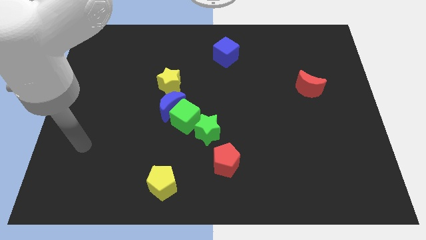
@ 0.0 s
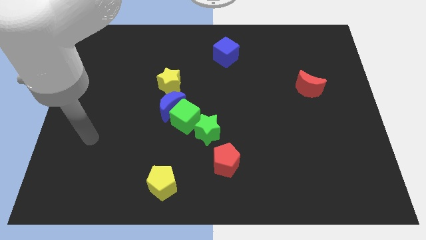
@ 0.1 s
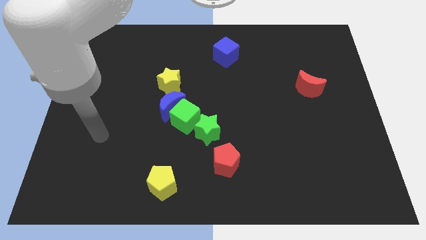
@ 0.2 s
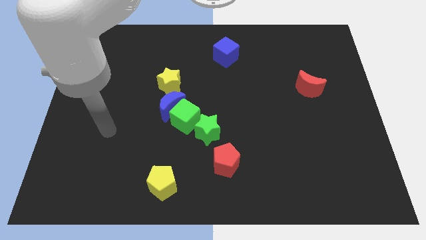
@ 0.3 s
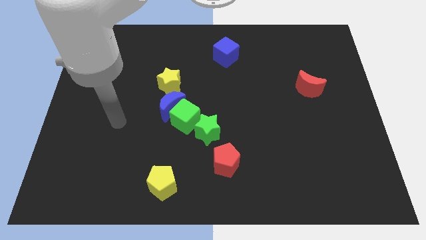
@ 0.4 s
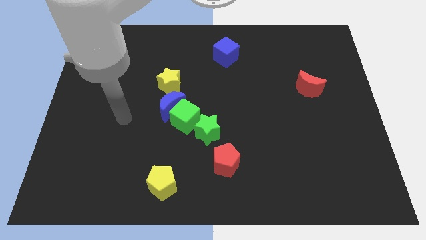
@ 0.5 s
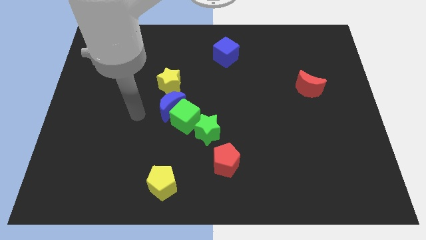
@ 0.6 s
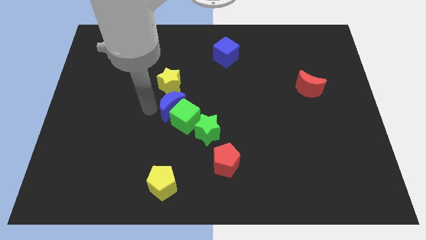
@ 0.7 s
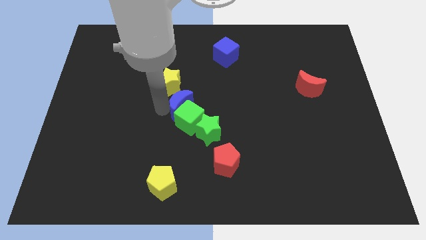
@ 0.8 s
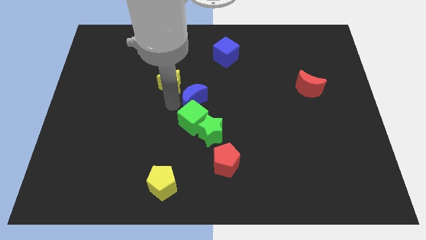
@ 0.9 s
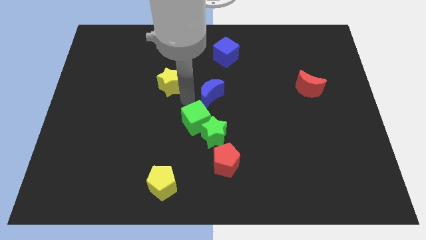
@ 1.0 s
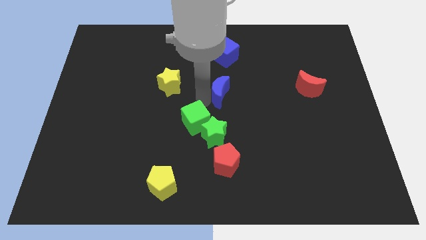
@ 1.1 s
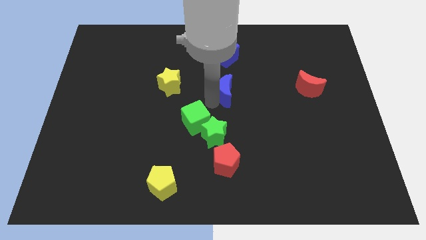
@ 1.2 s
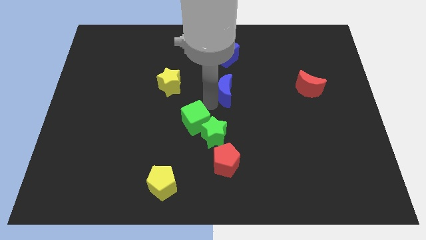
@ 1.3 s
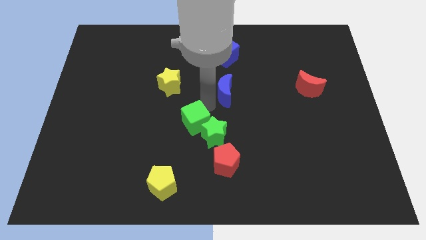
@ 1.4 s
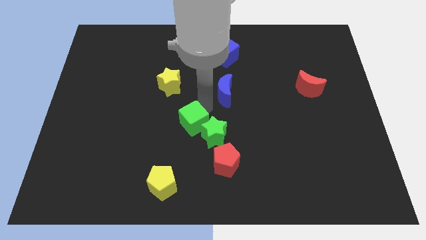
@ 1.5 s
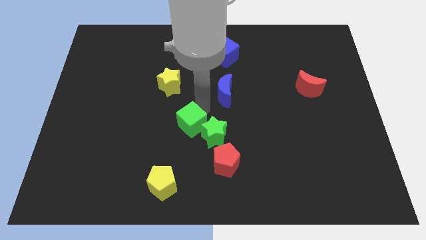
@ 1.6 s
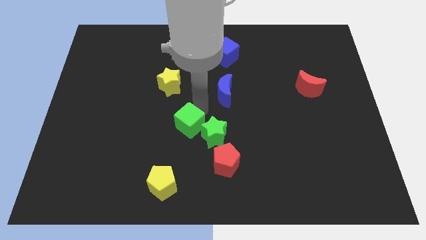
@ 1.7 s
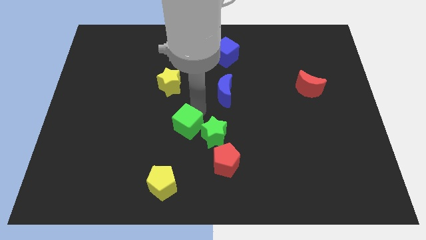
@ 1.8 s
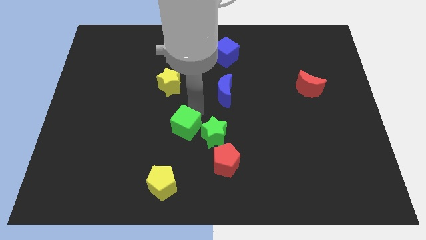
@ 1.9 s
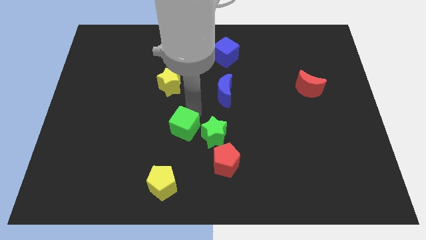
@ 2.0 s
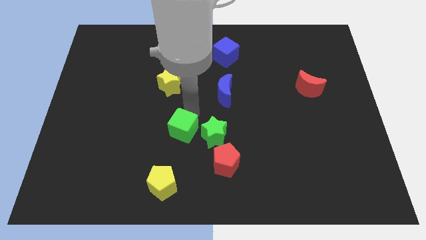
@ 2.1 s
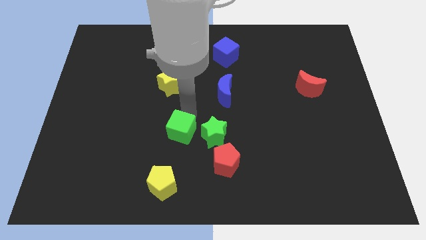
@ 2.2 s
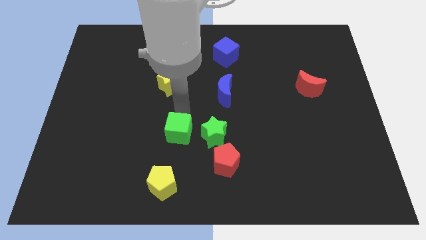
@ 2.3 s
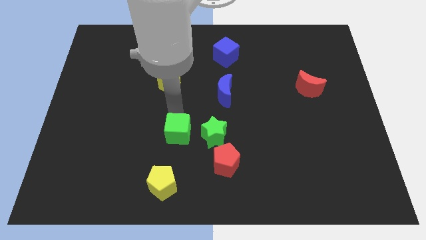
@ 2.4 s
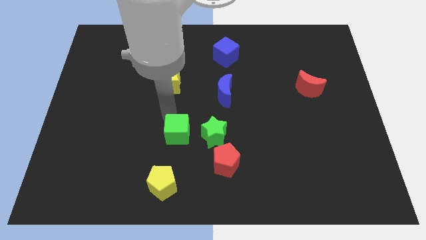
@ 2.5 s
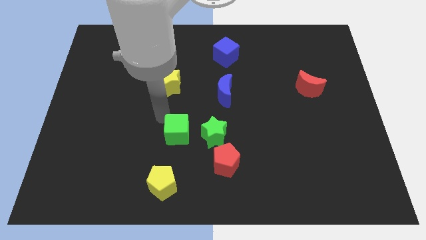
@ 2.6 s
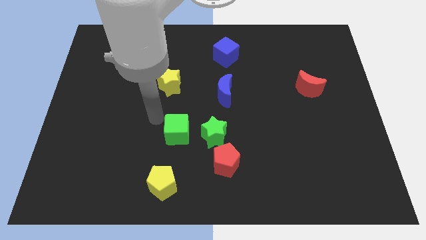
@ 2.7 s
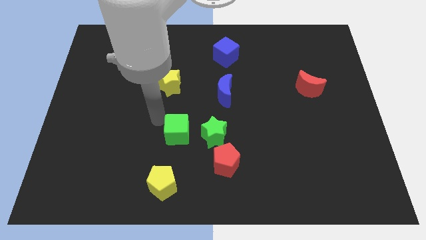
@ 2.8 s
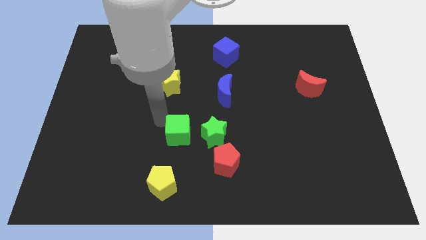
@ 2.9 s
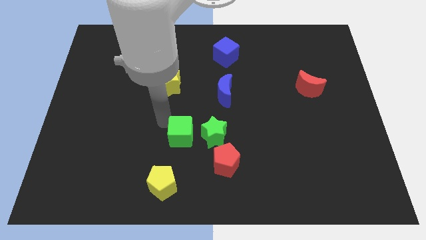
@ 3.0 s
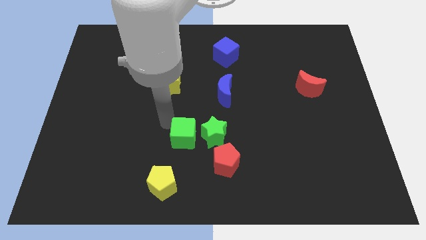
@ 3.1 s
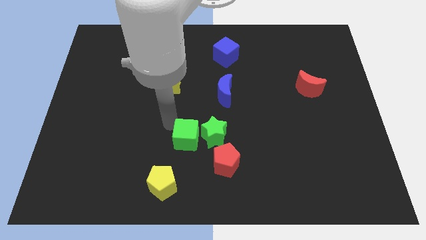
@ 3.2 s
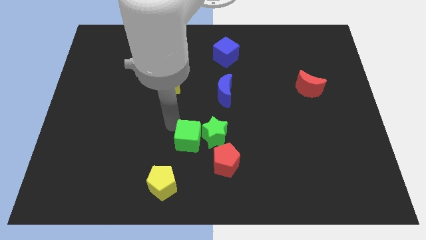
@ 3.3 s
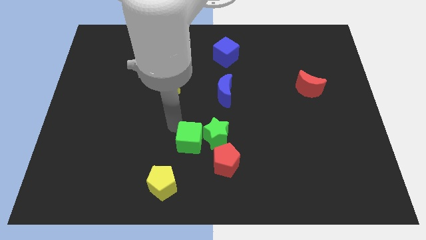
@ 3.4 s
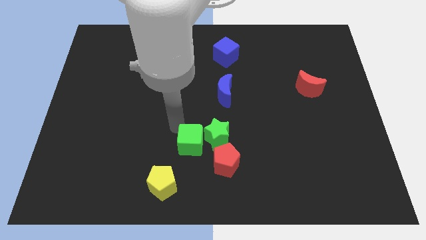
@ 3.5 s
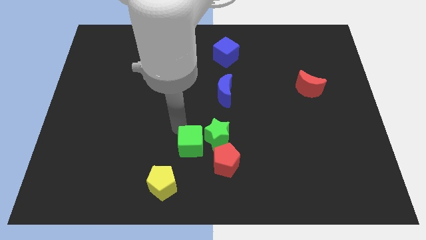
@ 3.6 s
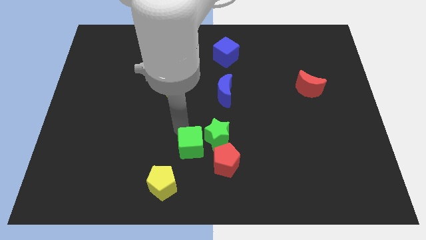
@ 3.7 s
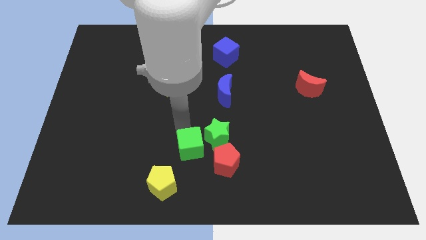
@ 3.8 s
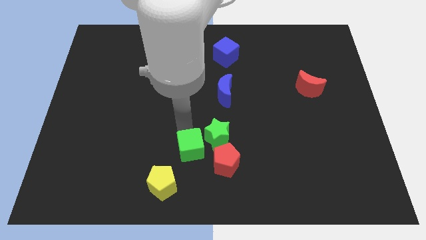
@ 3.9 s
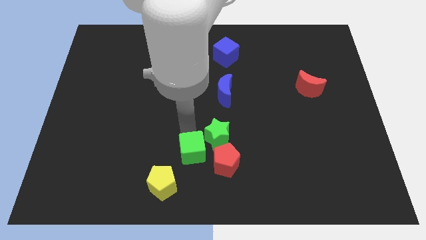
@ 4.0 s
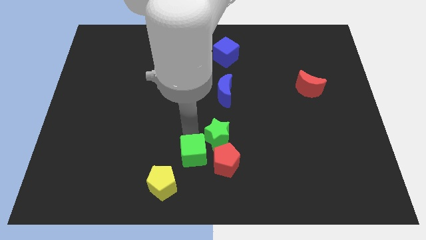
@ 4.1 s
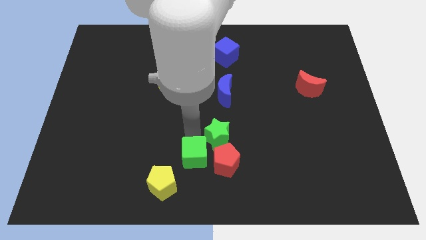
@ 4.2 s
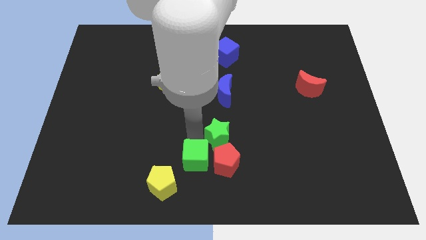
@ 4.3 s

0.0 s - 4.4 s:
put the green cube to the red pentagon

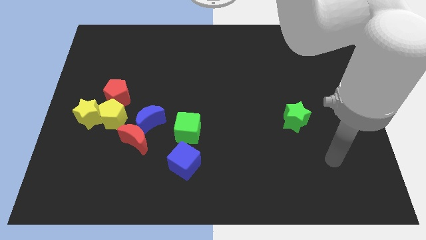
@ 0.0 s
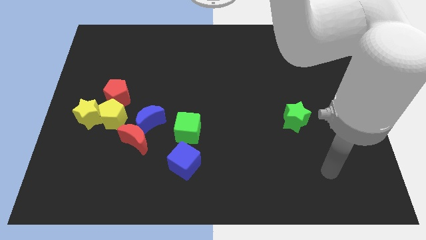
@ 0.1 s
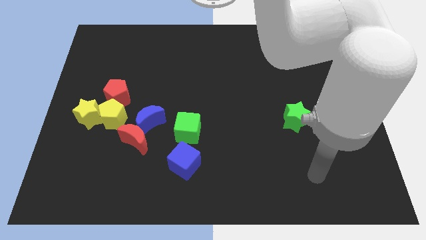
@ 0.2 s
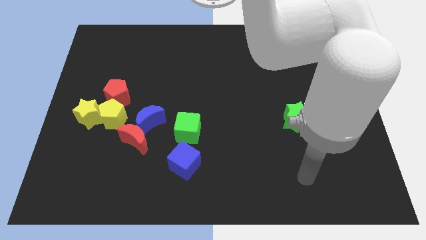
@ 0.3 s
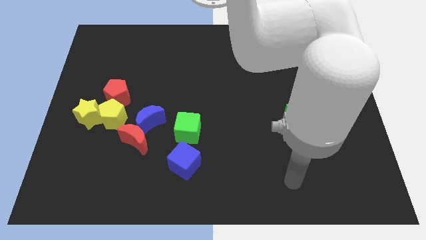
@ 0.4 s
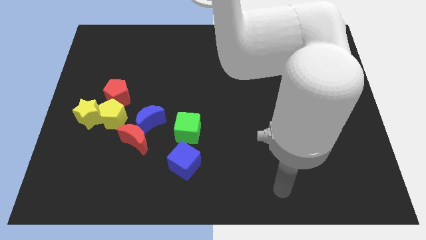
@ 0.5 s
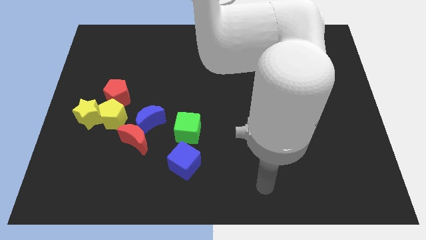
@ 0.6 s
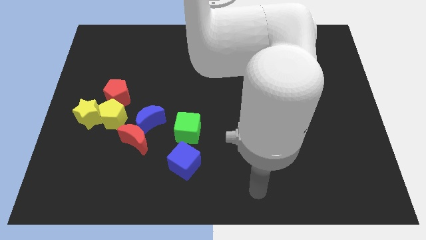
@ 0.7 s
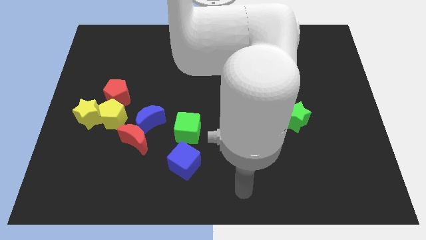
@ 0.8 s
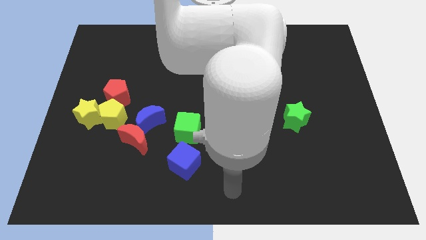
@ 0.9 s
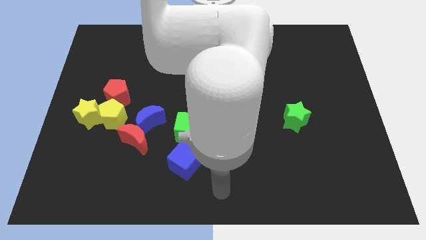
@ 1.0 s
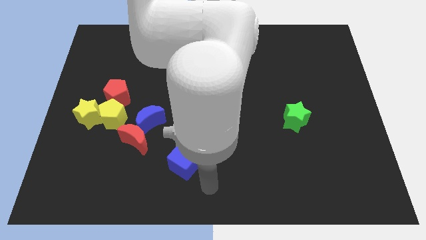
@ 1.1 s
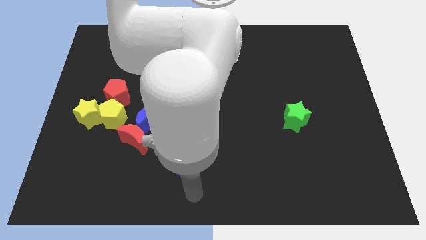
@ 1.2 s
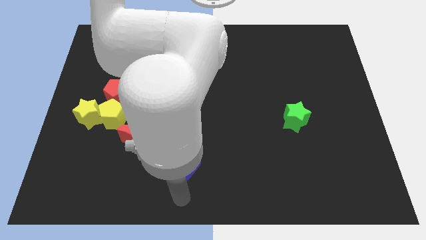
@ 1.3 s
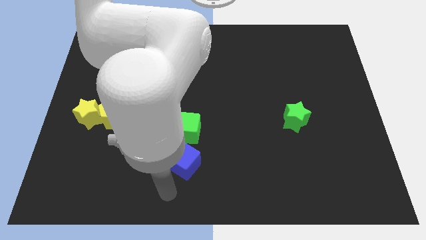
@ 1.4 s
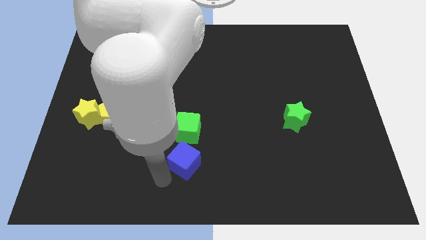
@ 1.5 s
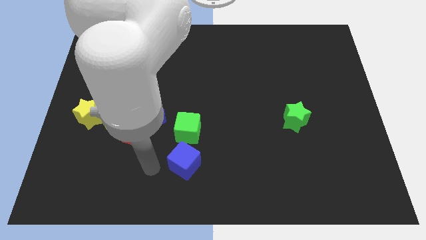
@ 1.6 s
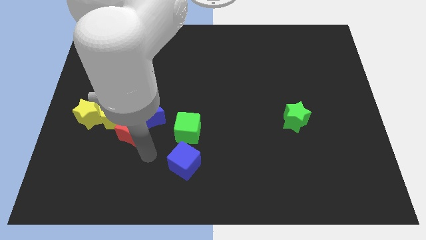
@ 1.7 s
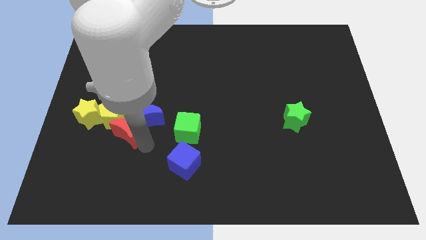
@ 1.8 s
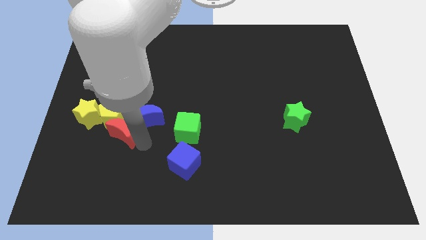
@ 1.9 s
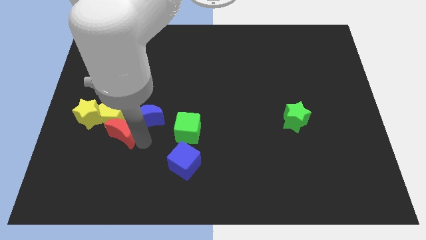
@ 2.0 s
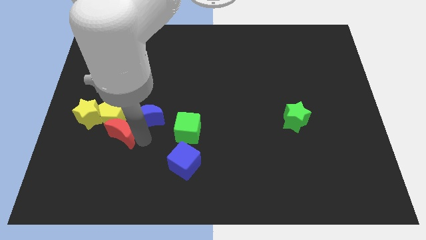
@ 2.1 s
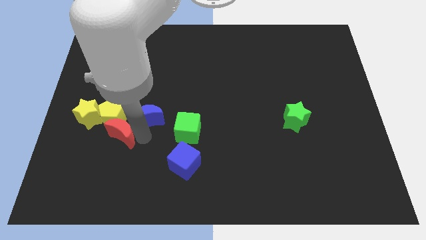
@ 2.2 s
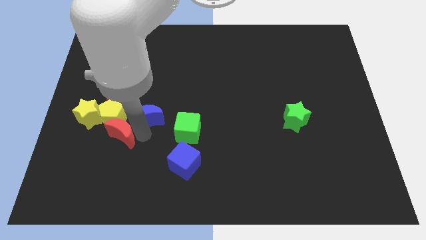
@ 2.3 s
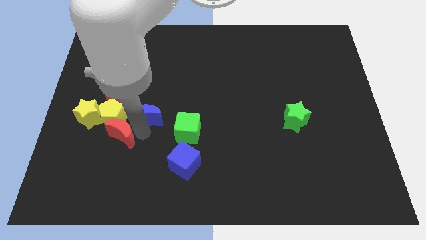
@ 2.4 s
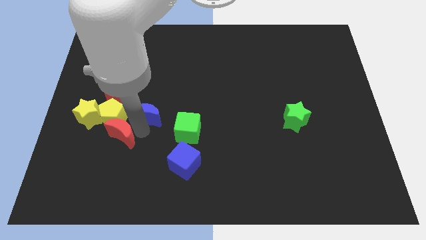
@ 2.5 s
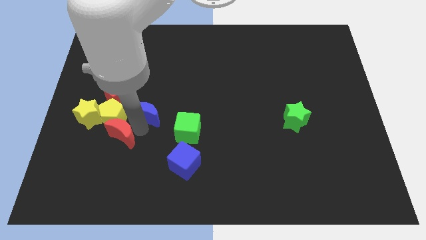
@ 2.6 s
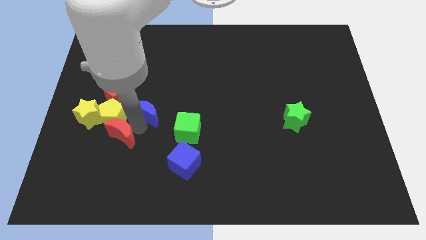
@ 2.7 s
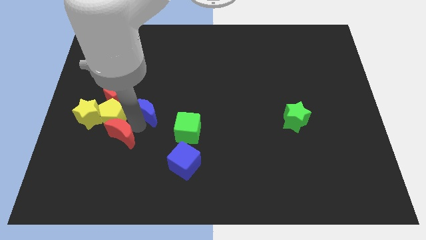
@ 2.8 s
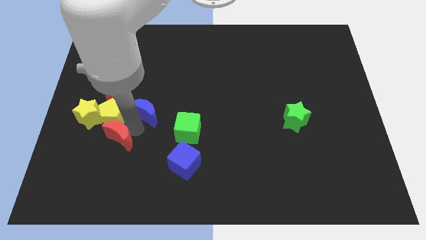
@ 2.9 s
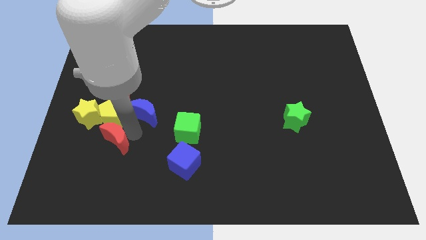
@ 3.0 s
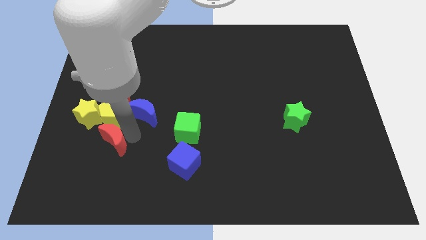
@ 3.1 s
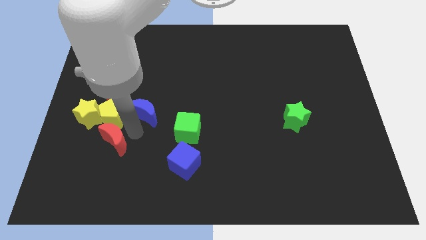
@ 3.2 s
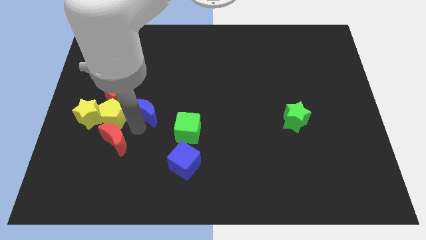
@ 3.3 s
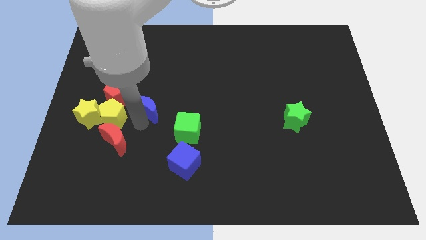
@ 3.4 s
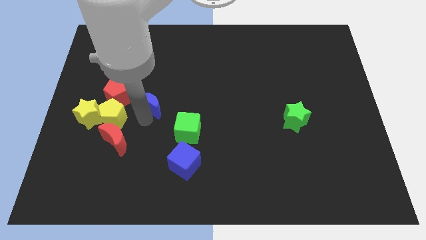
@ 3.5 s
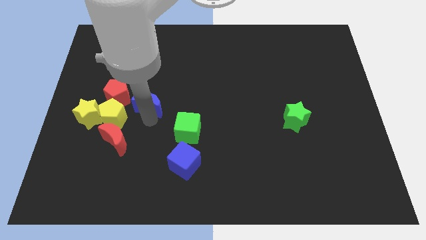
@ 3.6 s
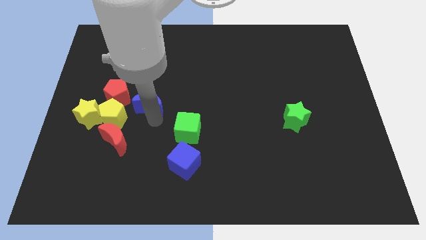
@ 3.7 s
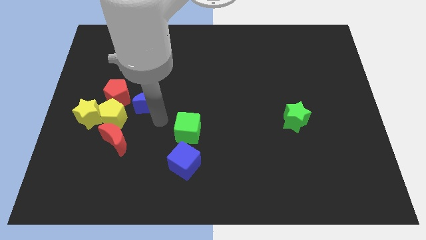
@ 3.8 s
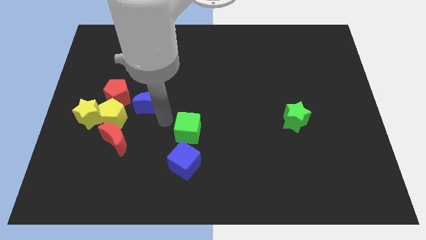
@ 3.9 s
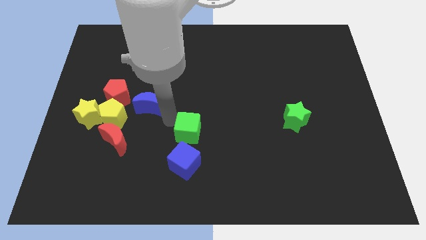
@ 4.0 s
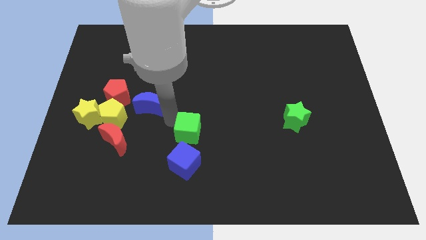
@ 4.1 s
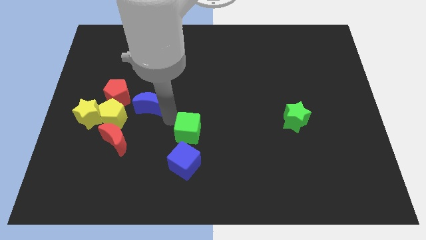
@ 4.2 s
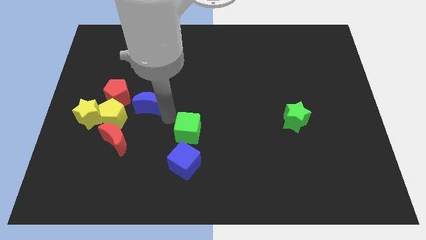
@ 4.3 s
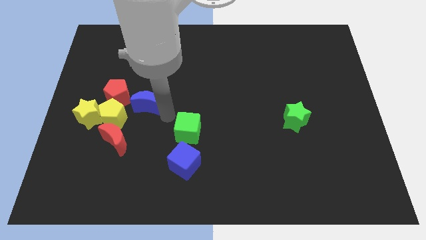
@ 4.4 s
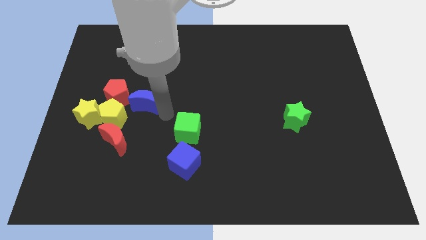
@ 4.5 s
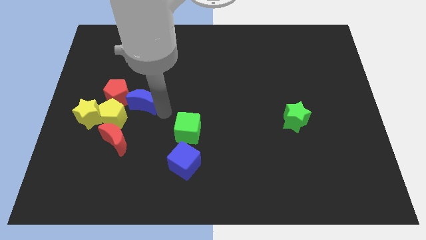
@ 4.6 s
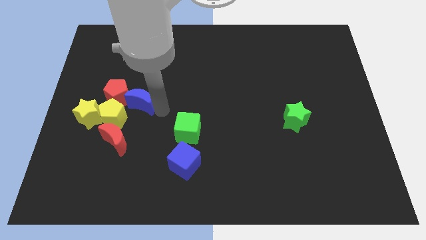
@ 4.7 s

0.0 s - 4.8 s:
move the blue moon close to the red pentagon
